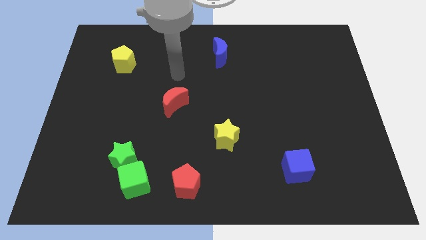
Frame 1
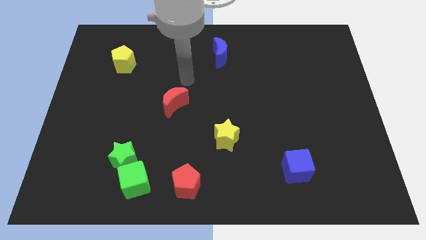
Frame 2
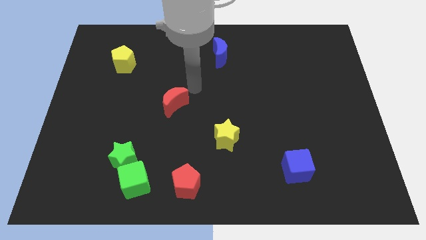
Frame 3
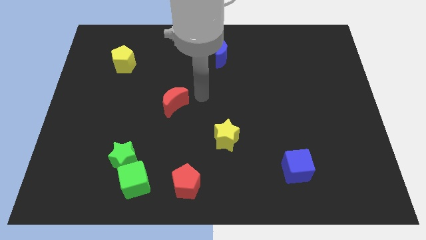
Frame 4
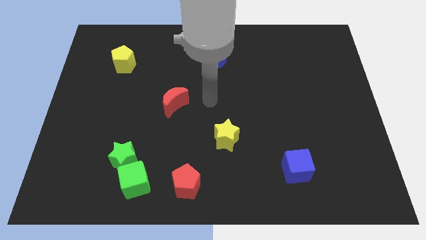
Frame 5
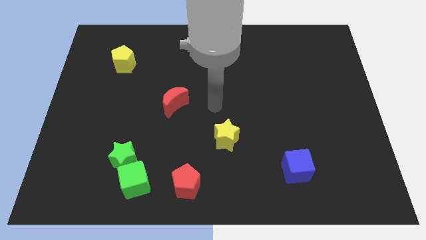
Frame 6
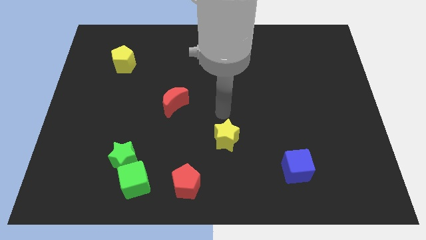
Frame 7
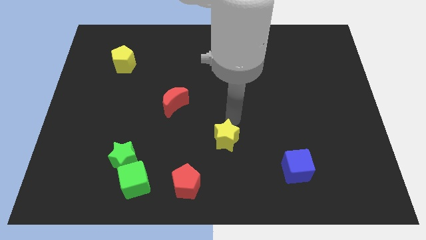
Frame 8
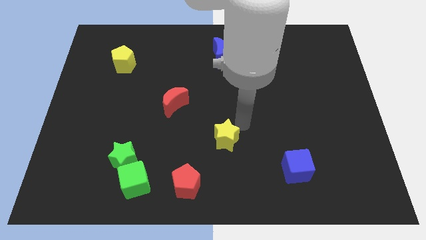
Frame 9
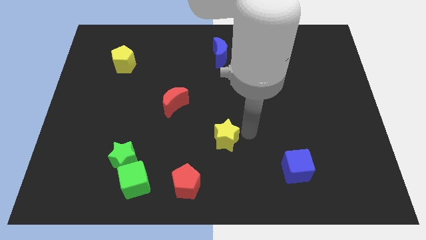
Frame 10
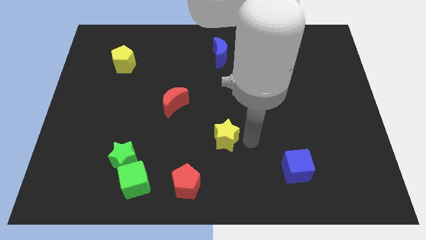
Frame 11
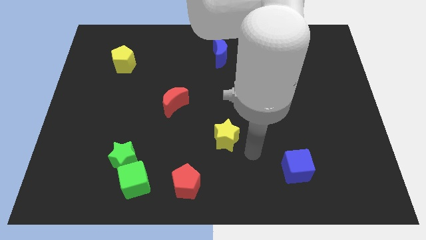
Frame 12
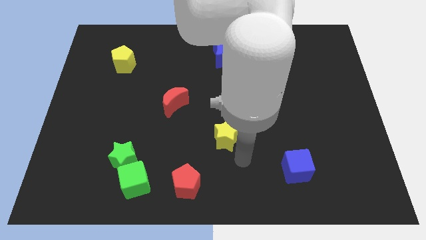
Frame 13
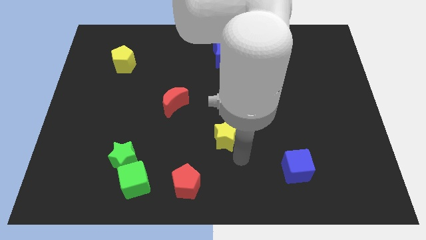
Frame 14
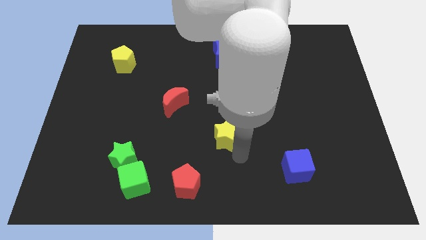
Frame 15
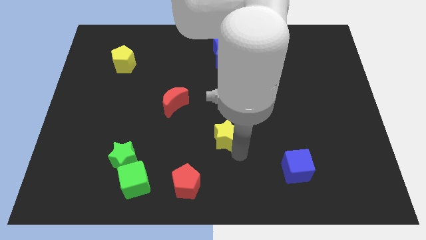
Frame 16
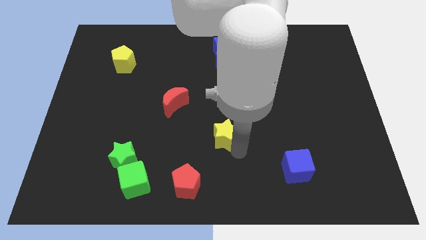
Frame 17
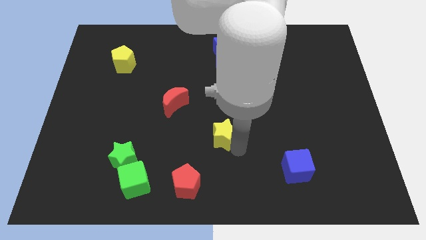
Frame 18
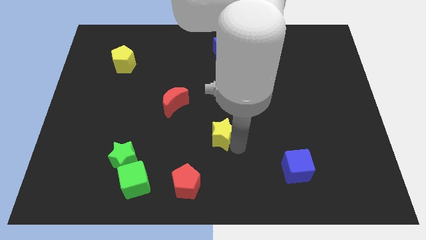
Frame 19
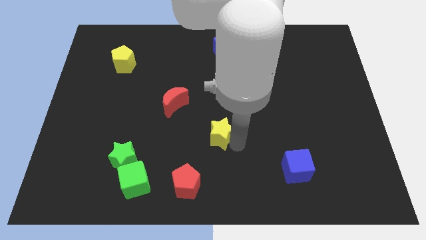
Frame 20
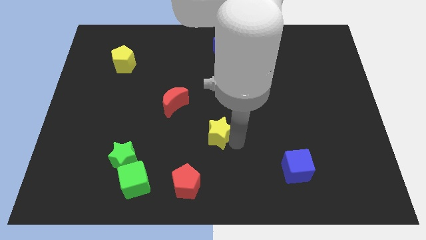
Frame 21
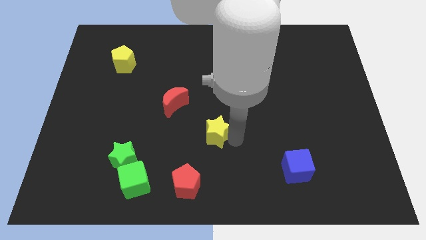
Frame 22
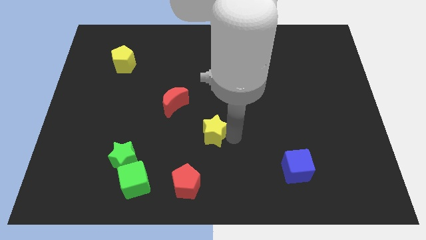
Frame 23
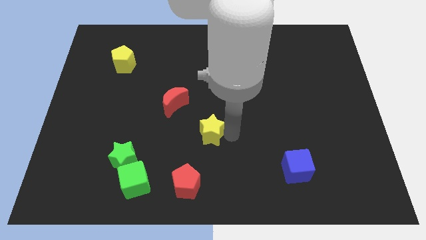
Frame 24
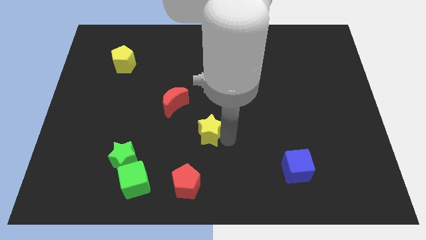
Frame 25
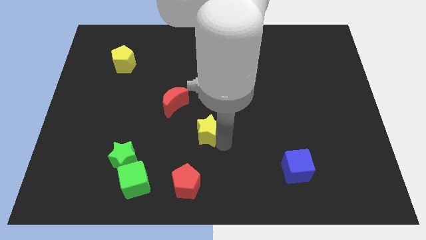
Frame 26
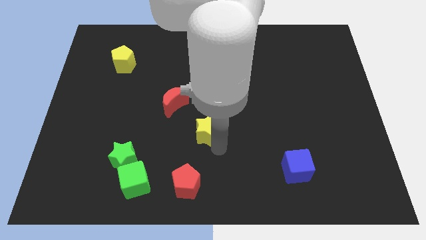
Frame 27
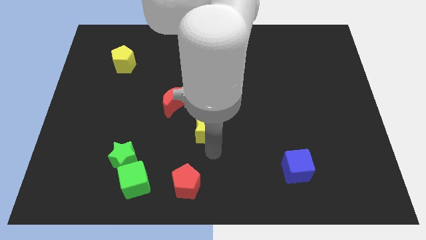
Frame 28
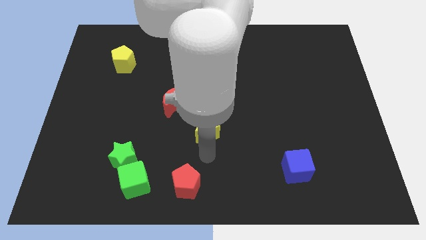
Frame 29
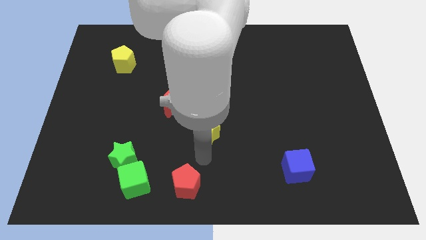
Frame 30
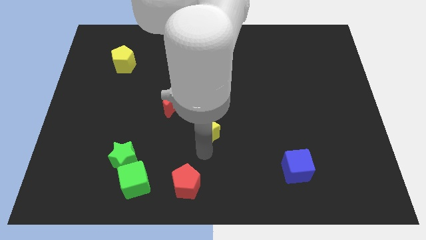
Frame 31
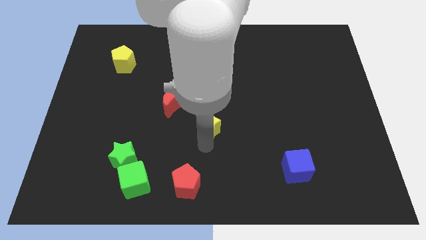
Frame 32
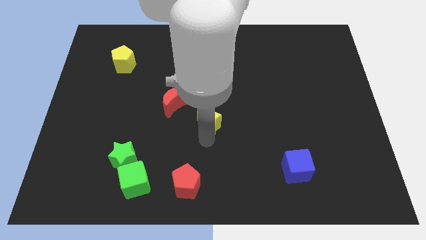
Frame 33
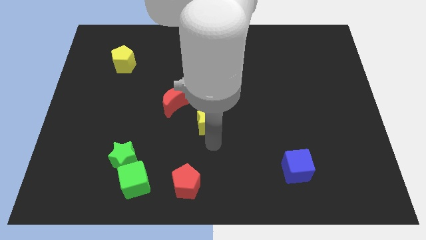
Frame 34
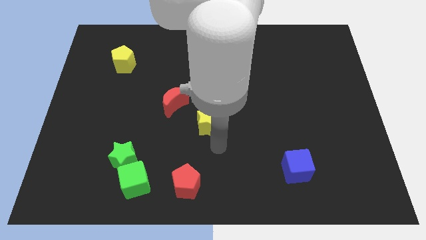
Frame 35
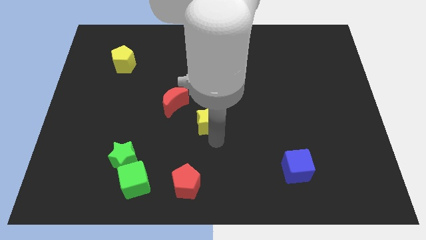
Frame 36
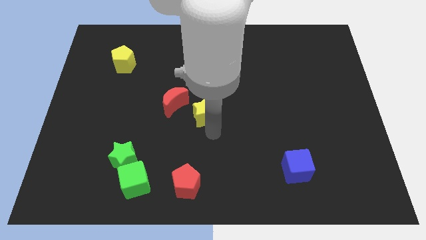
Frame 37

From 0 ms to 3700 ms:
move the yellow star a little bit up and then left

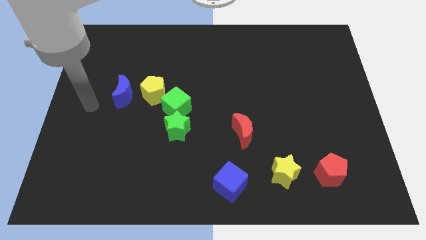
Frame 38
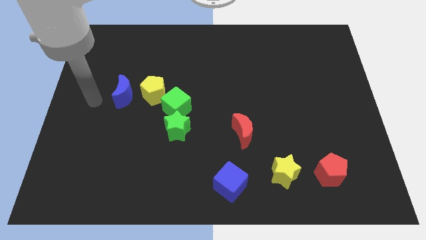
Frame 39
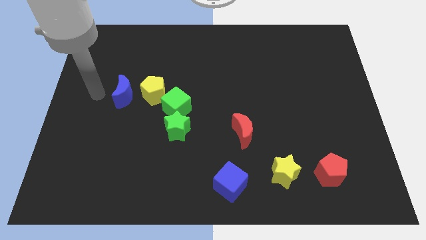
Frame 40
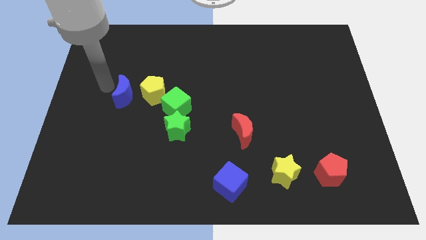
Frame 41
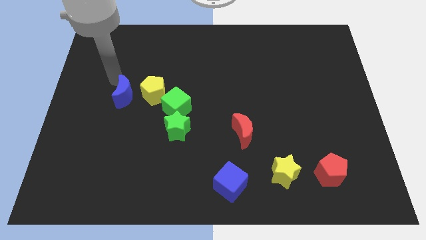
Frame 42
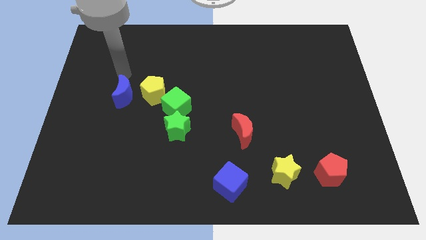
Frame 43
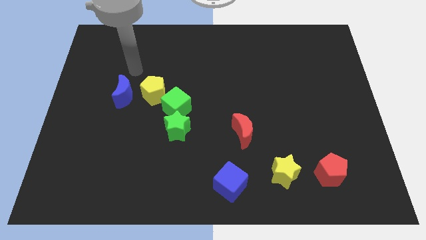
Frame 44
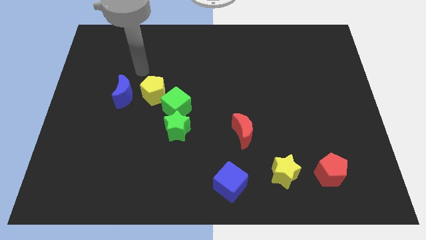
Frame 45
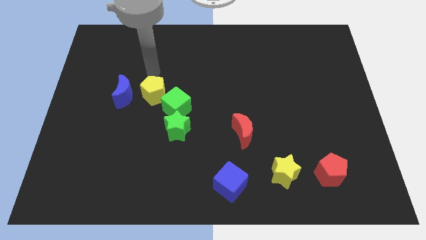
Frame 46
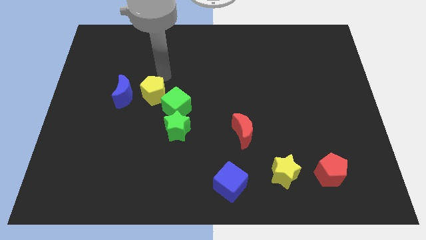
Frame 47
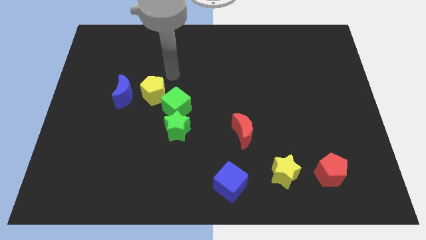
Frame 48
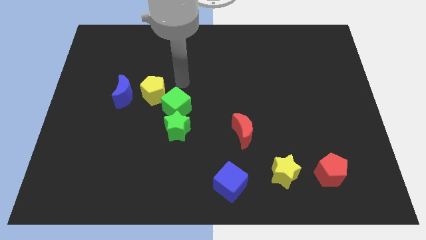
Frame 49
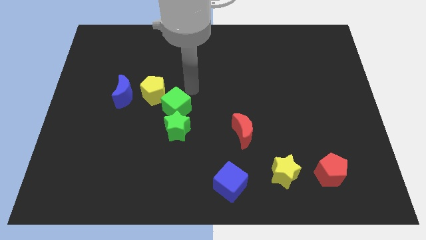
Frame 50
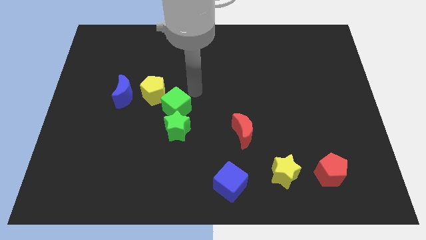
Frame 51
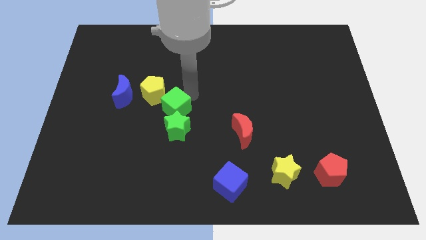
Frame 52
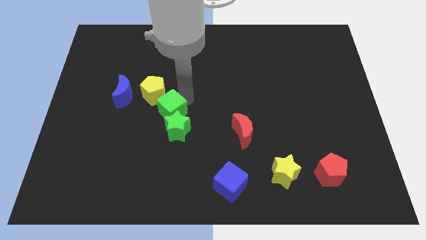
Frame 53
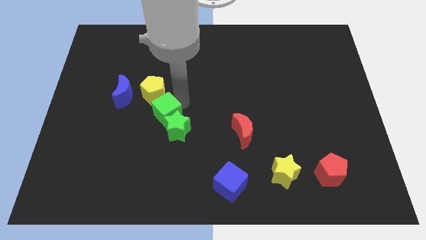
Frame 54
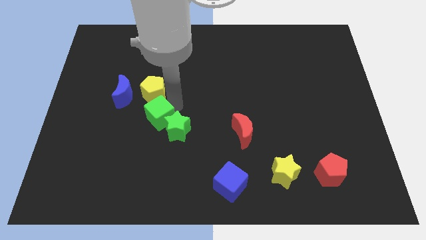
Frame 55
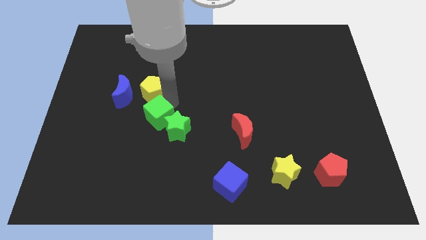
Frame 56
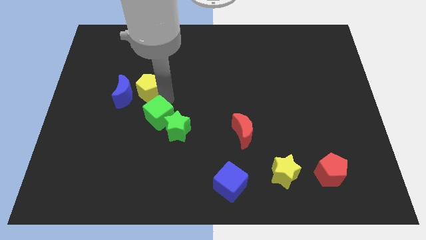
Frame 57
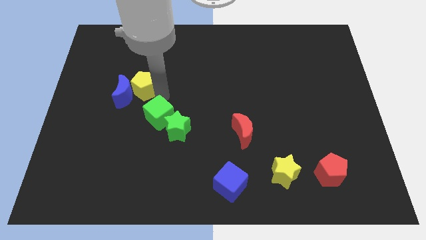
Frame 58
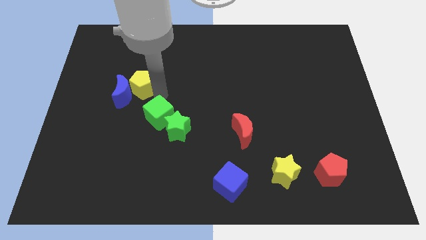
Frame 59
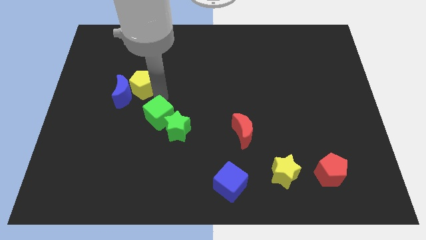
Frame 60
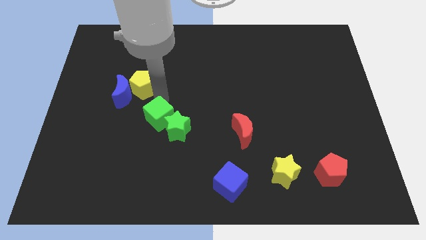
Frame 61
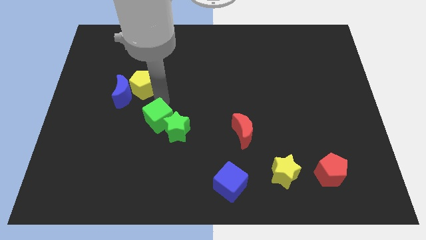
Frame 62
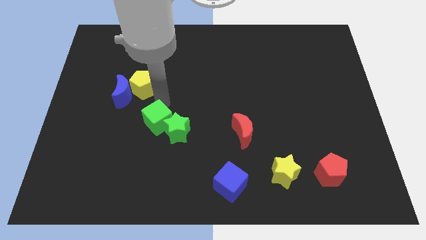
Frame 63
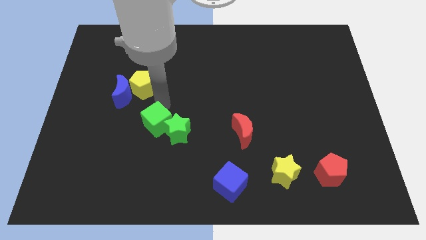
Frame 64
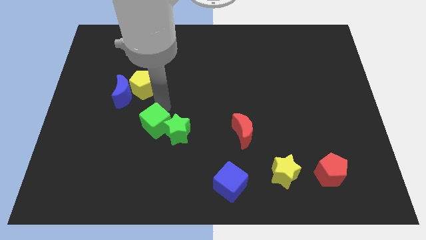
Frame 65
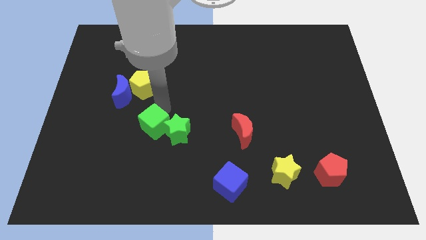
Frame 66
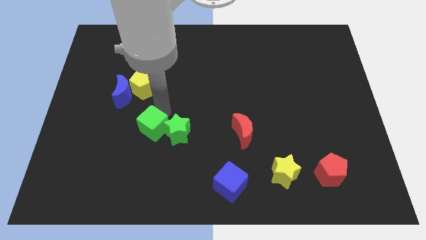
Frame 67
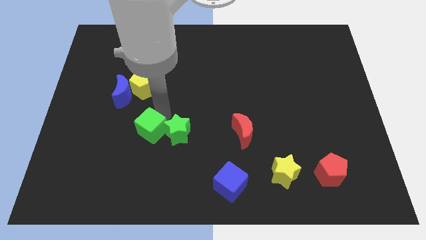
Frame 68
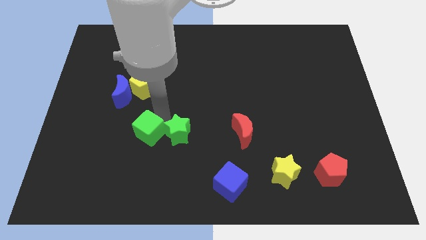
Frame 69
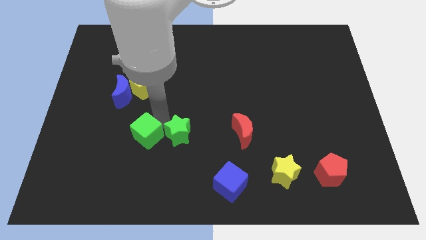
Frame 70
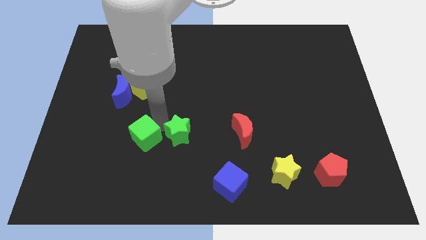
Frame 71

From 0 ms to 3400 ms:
push the green cube down a little bit

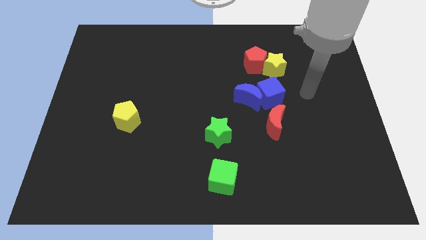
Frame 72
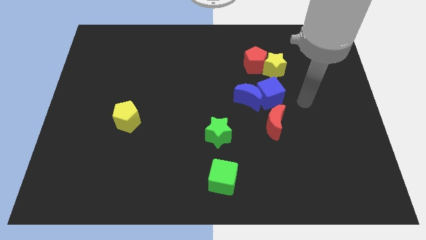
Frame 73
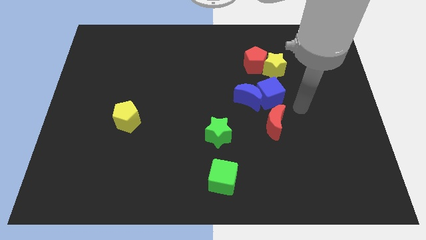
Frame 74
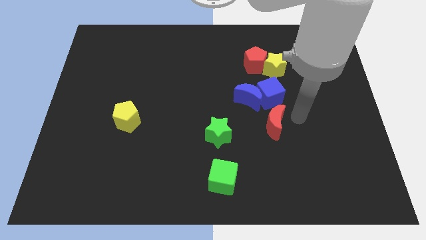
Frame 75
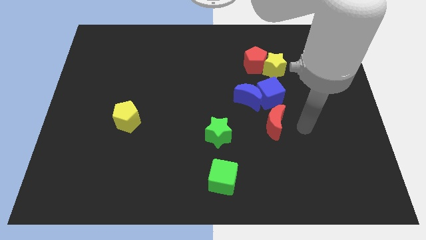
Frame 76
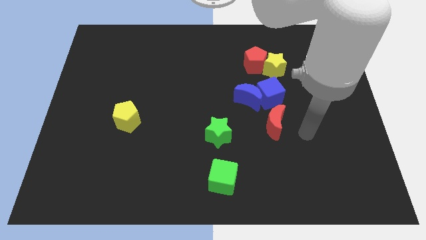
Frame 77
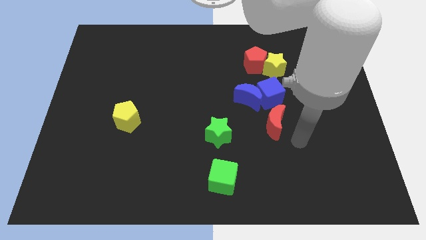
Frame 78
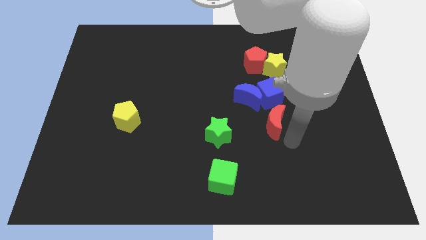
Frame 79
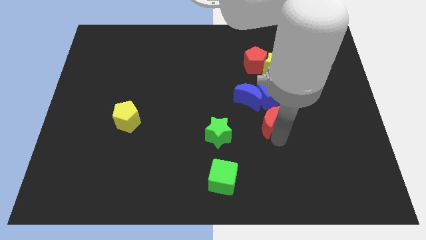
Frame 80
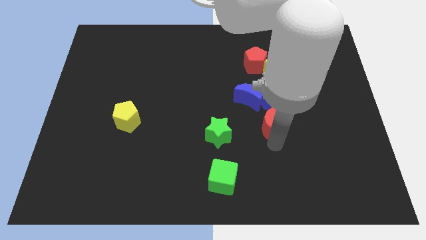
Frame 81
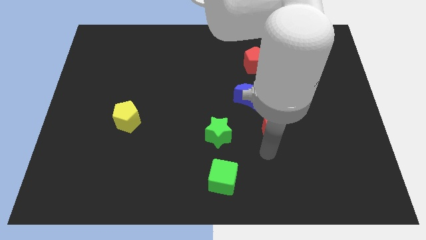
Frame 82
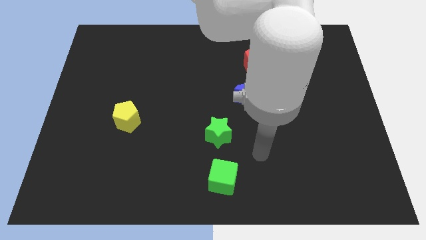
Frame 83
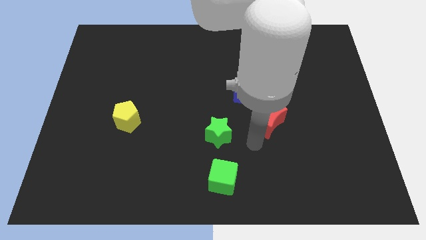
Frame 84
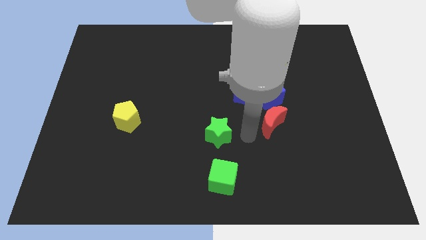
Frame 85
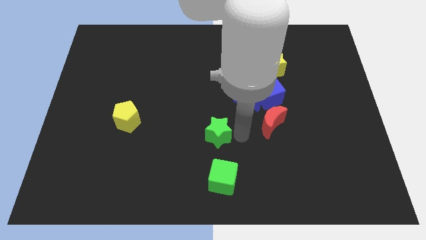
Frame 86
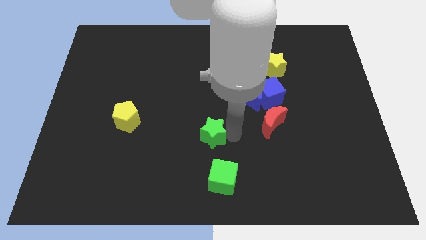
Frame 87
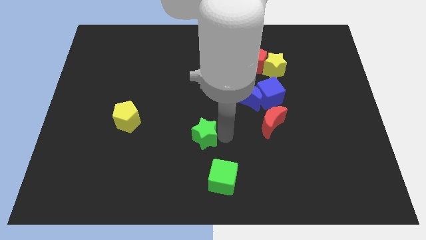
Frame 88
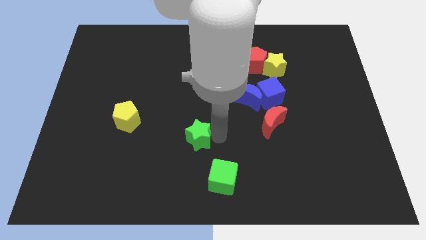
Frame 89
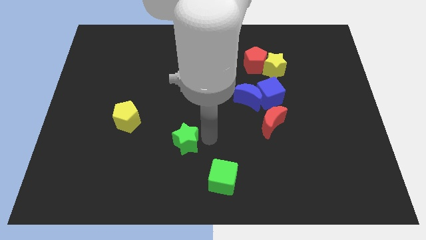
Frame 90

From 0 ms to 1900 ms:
push the green star a bit to the left
